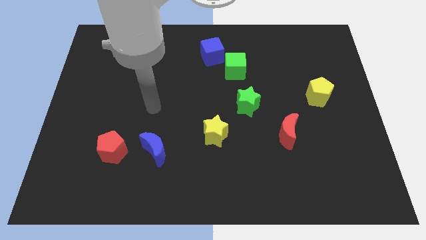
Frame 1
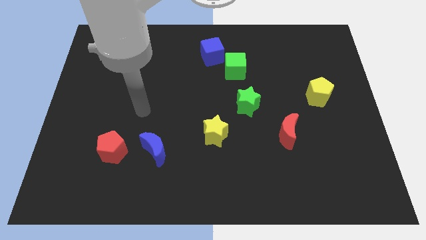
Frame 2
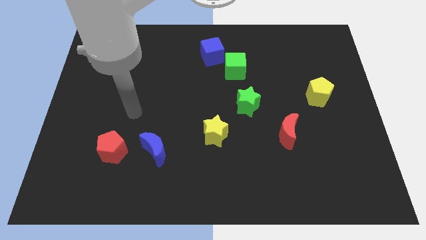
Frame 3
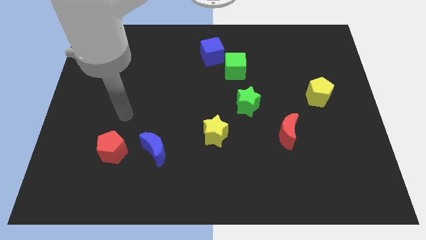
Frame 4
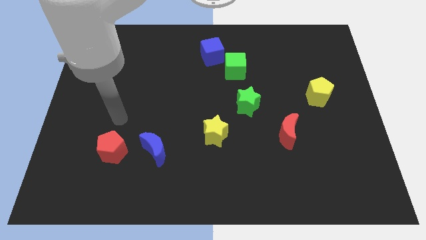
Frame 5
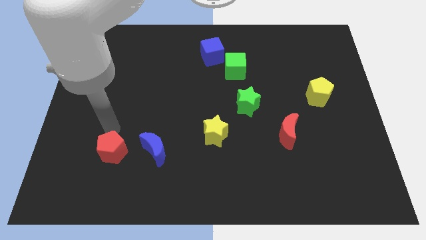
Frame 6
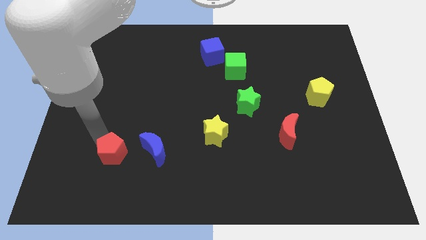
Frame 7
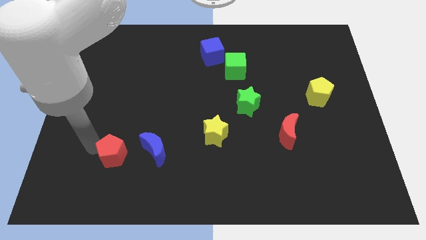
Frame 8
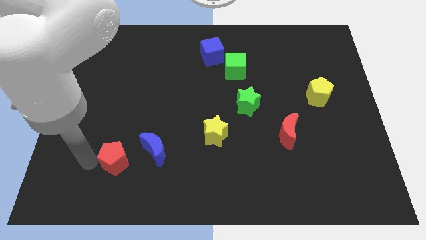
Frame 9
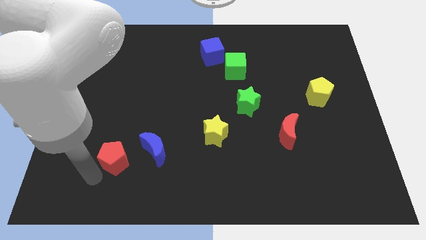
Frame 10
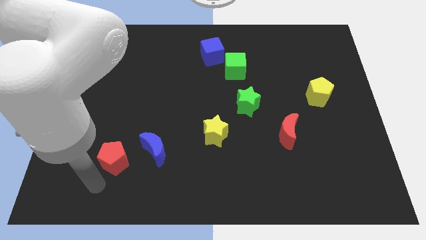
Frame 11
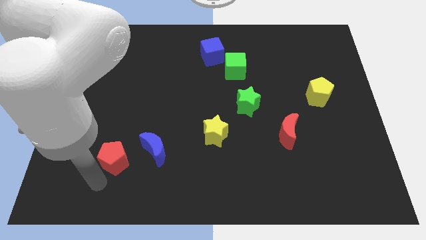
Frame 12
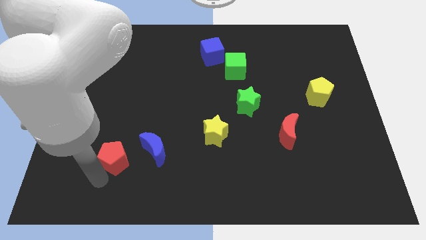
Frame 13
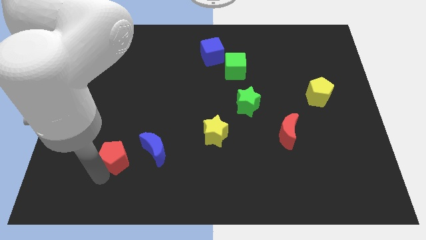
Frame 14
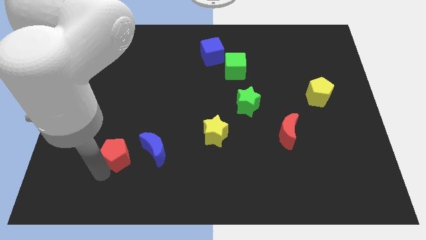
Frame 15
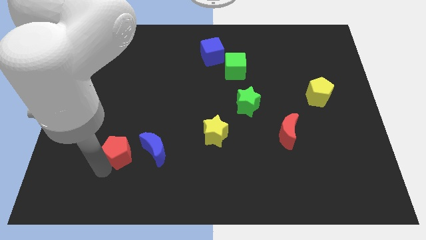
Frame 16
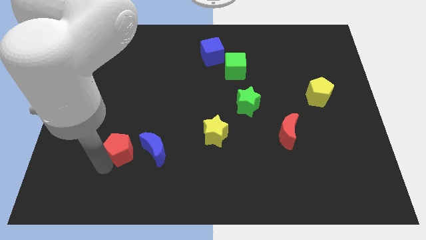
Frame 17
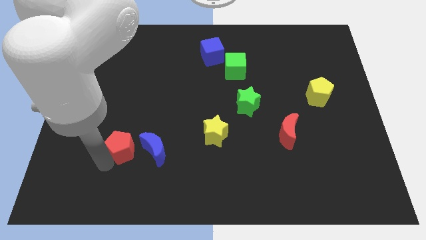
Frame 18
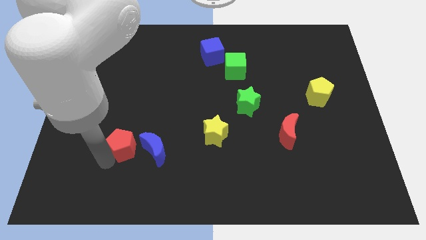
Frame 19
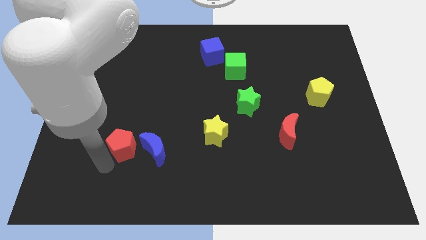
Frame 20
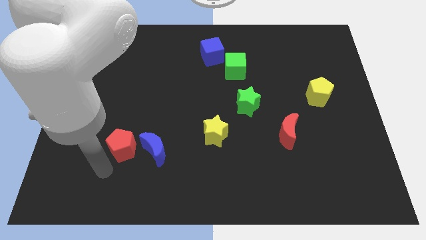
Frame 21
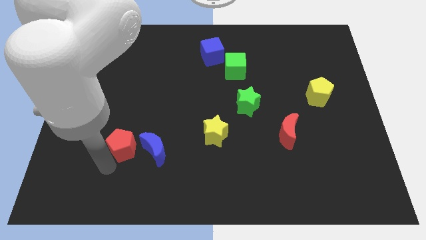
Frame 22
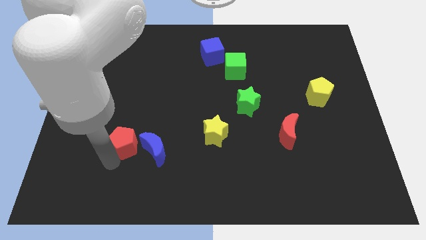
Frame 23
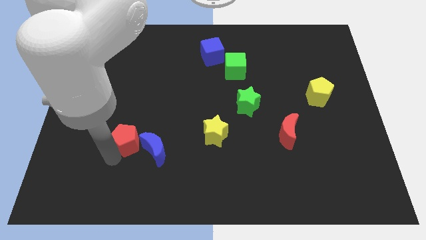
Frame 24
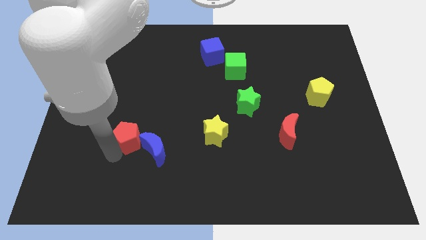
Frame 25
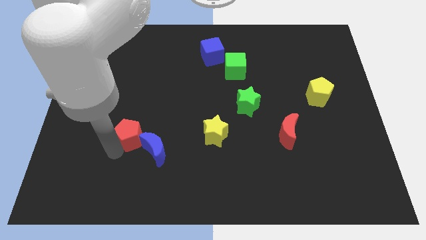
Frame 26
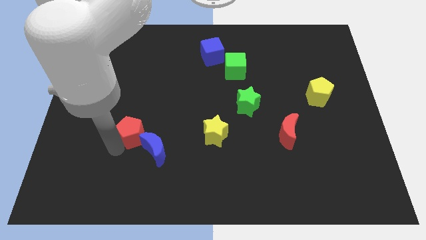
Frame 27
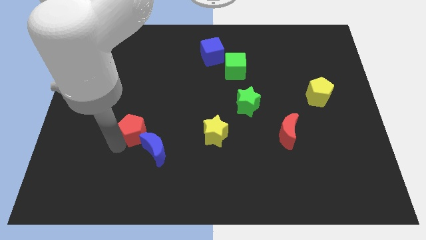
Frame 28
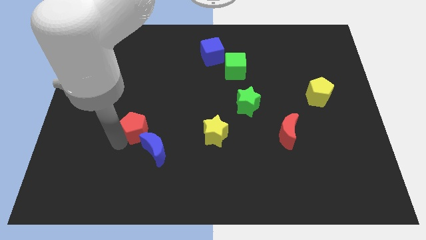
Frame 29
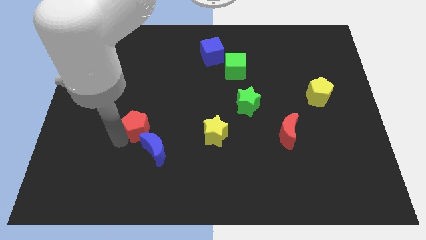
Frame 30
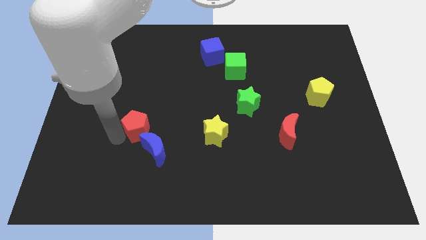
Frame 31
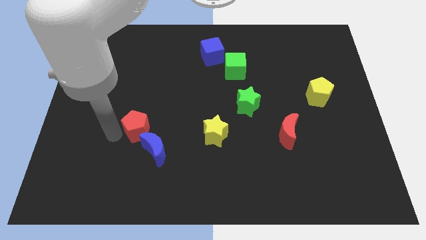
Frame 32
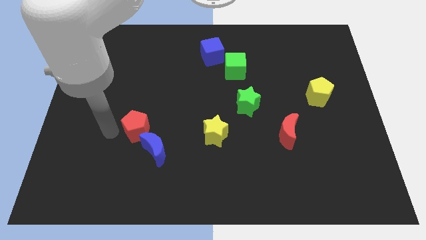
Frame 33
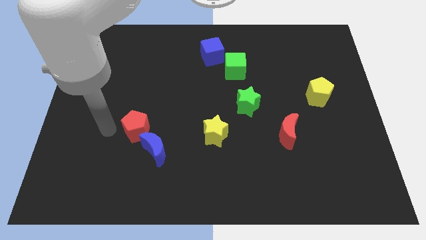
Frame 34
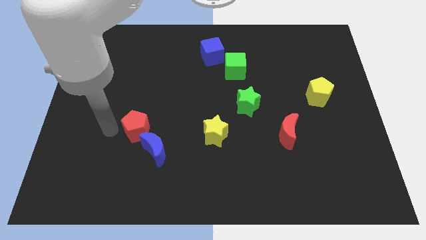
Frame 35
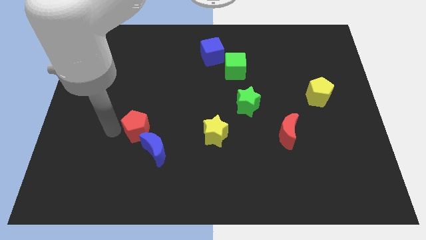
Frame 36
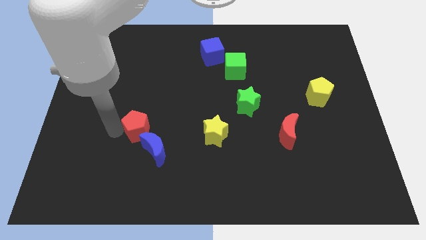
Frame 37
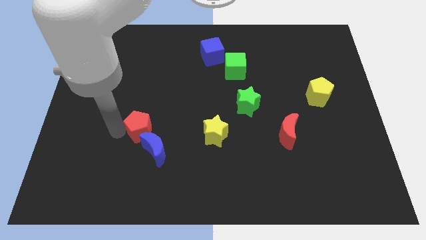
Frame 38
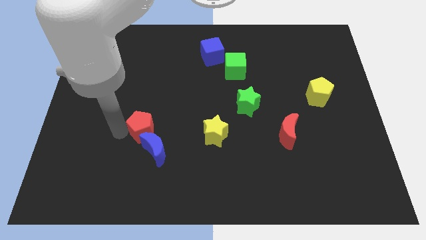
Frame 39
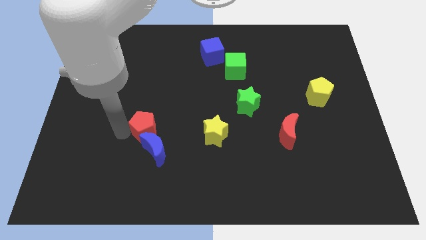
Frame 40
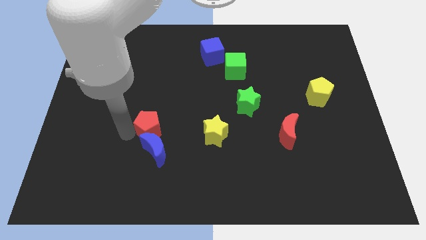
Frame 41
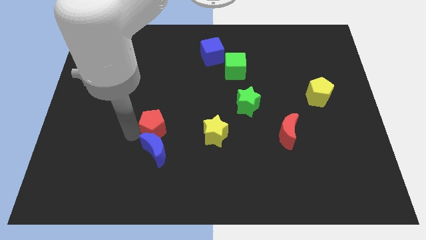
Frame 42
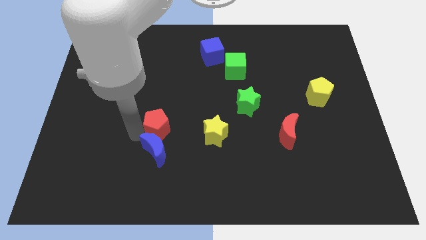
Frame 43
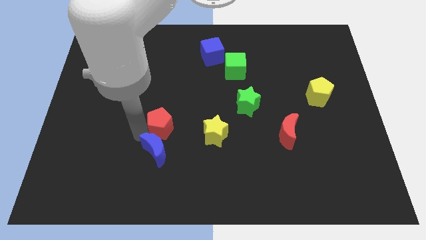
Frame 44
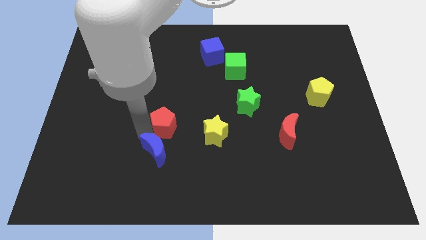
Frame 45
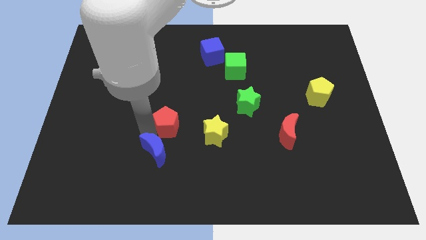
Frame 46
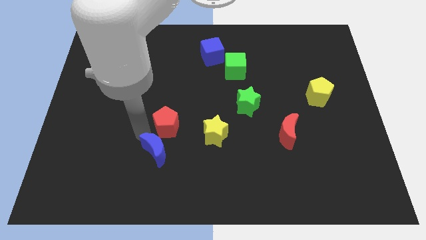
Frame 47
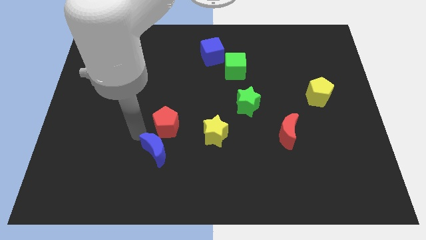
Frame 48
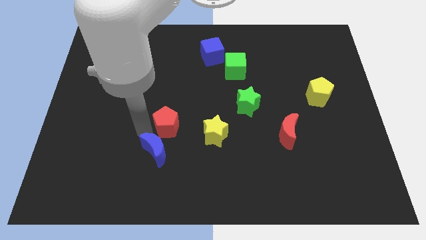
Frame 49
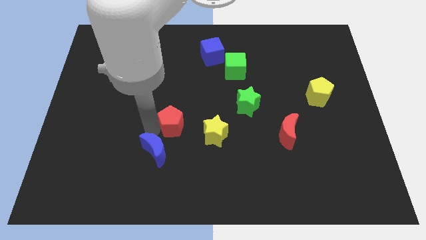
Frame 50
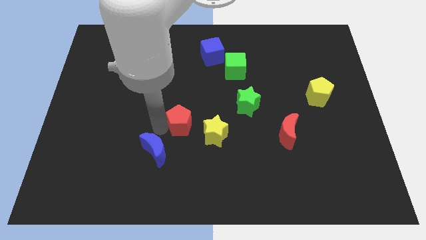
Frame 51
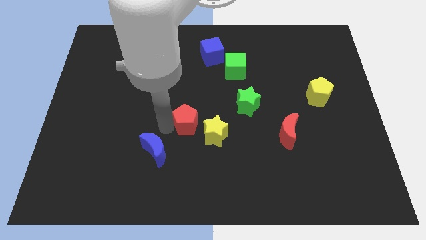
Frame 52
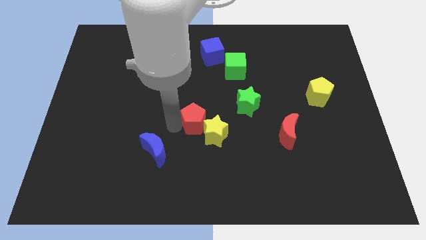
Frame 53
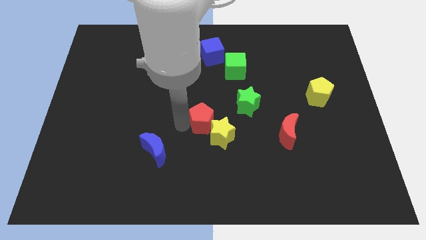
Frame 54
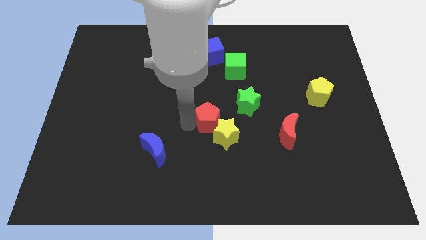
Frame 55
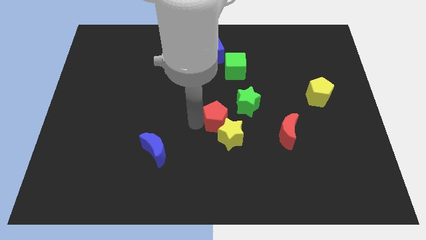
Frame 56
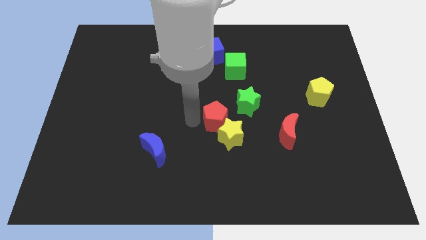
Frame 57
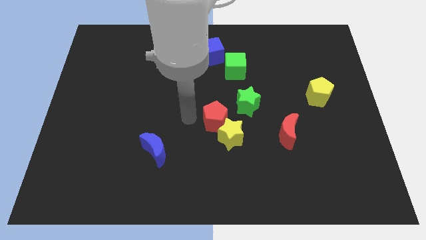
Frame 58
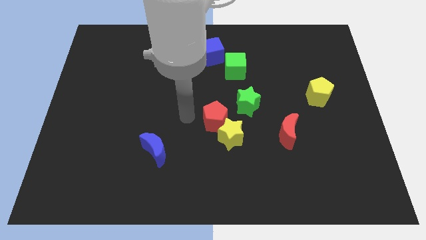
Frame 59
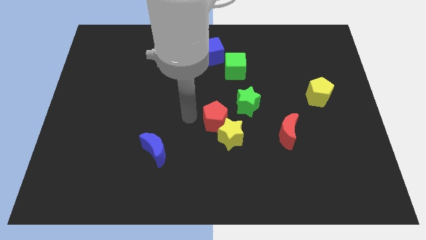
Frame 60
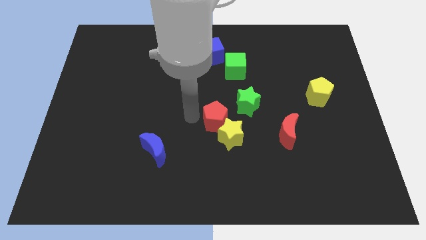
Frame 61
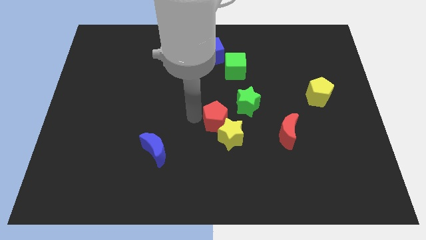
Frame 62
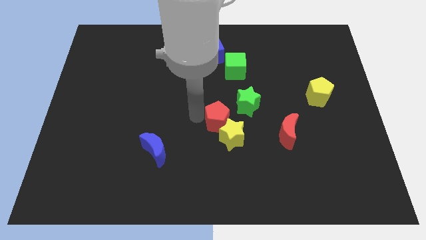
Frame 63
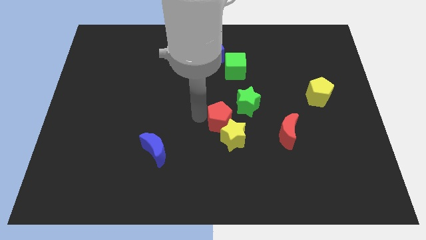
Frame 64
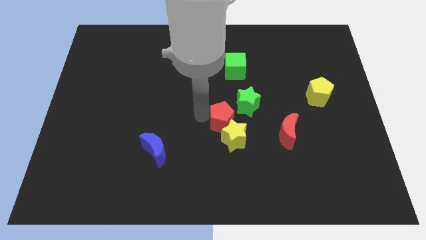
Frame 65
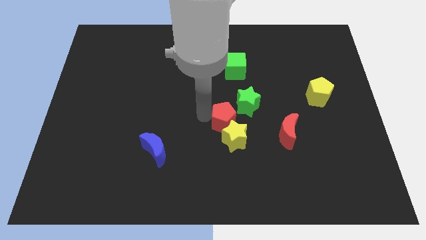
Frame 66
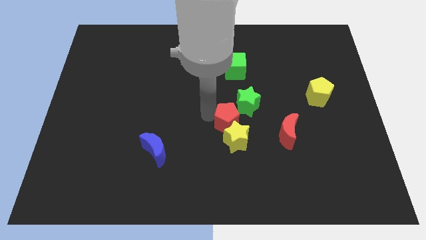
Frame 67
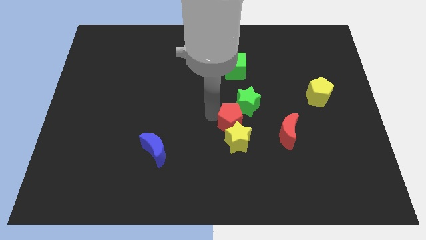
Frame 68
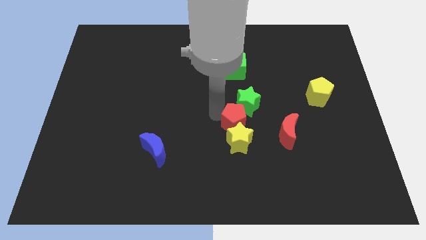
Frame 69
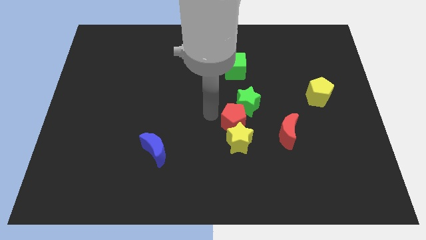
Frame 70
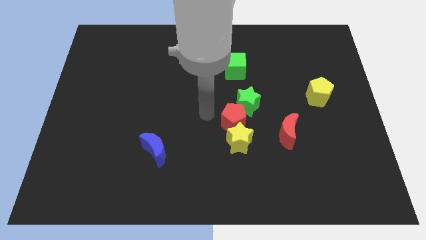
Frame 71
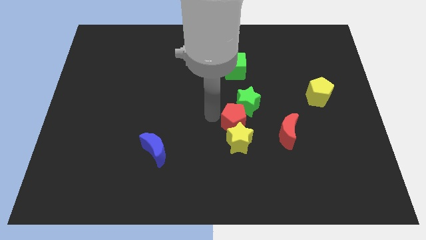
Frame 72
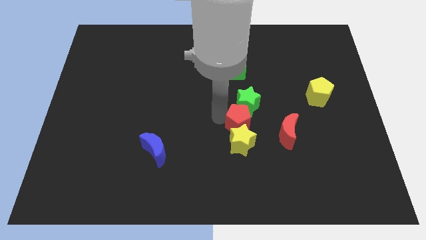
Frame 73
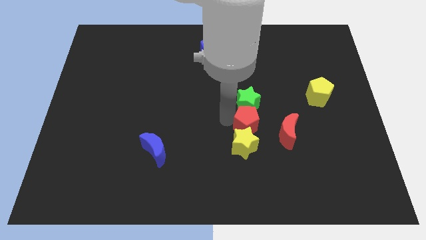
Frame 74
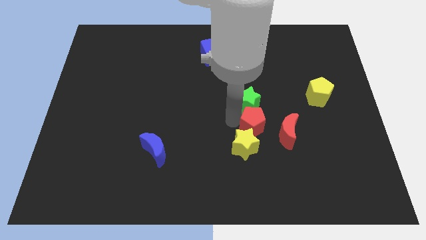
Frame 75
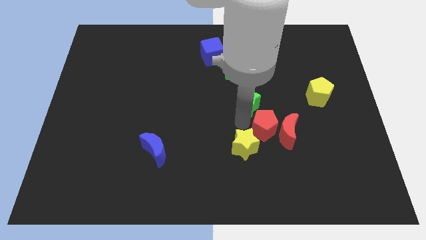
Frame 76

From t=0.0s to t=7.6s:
push the red pentagon towards the red moon

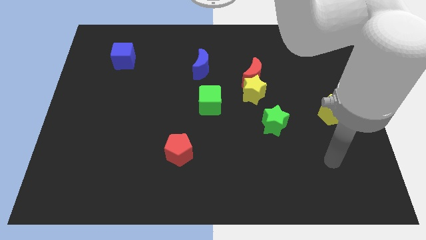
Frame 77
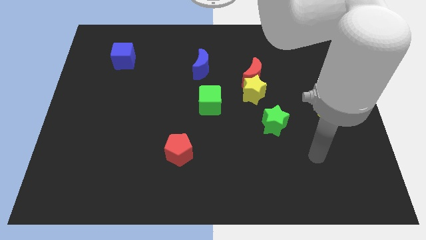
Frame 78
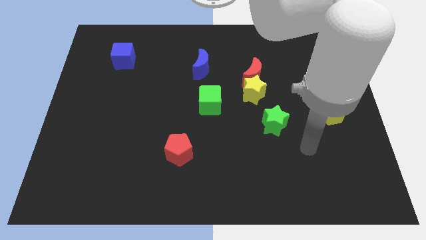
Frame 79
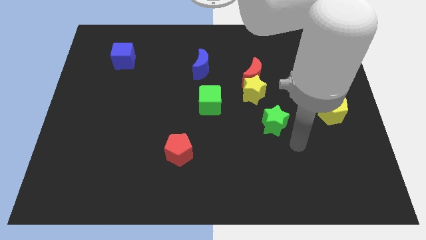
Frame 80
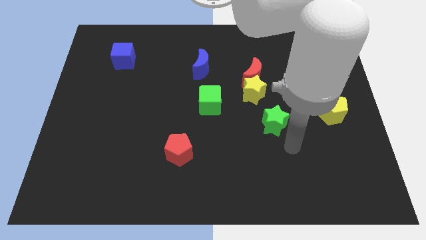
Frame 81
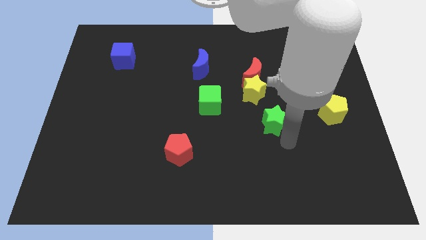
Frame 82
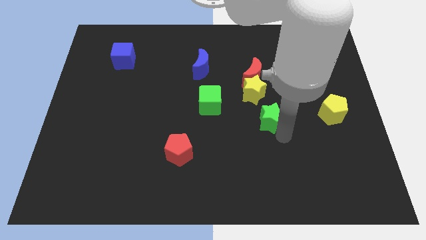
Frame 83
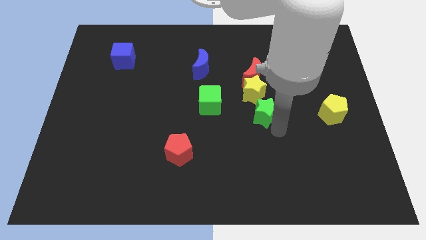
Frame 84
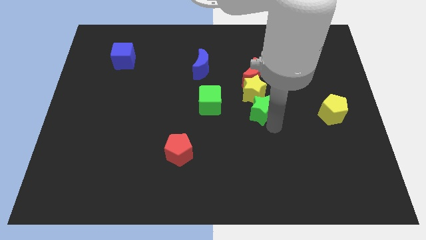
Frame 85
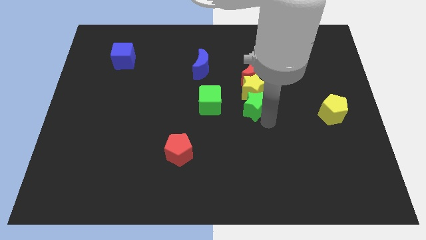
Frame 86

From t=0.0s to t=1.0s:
move the green star to the yellow star
